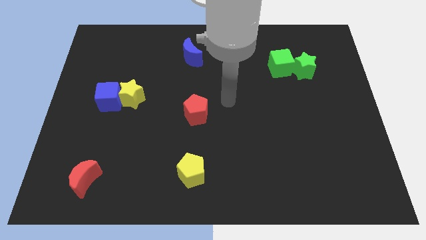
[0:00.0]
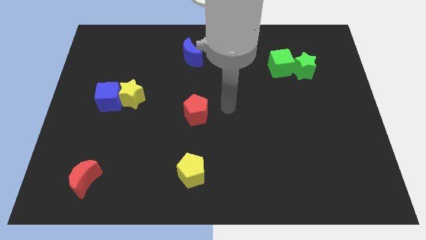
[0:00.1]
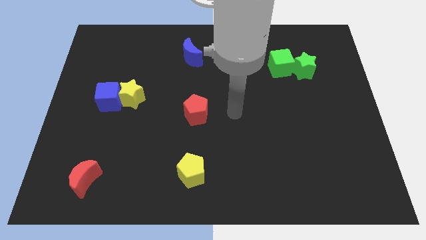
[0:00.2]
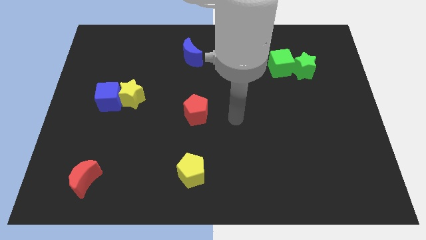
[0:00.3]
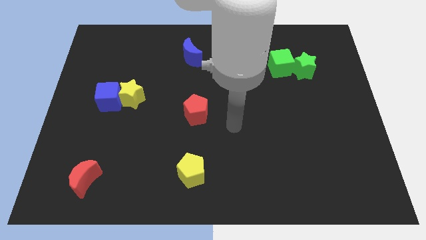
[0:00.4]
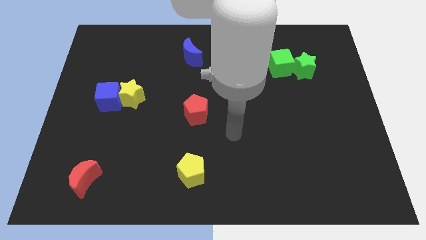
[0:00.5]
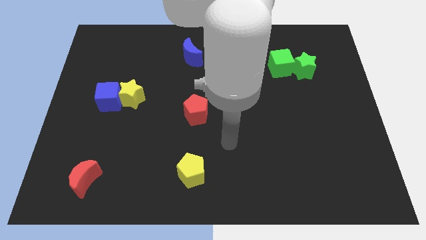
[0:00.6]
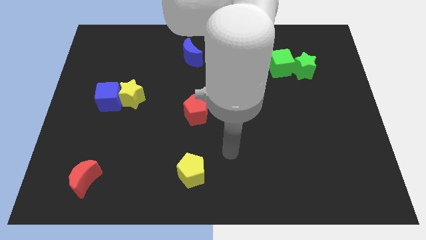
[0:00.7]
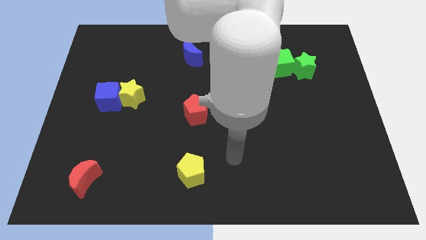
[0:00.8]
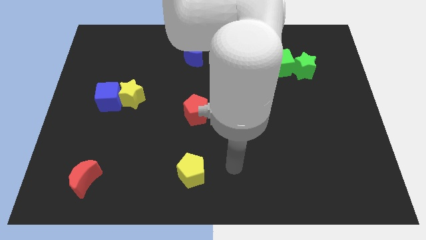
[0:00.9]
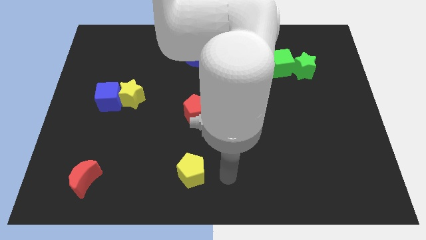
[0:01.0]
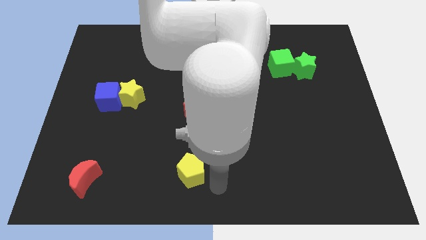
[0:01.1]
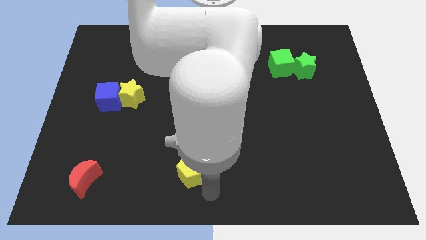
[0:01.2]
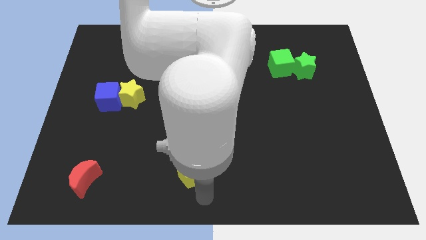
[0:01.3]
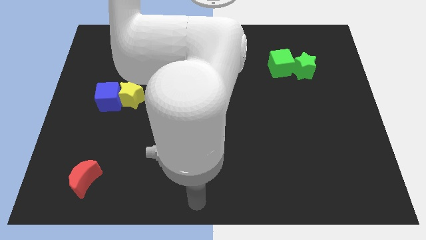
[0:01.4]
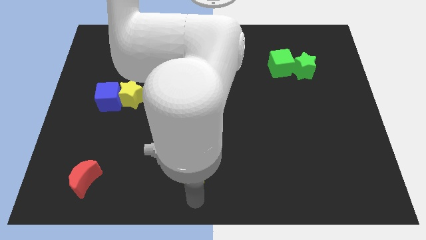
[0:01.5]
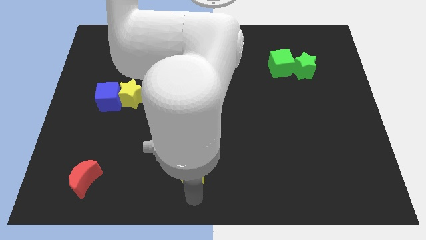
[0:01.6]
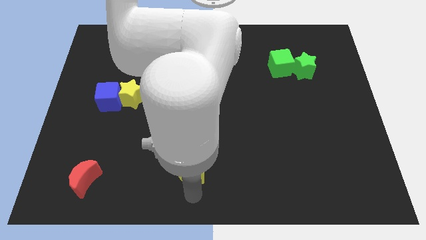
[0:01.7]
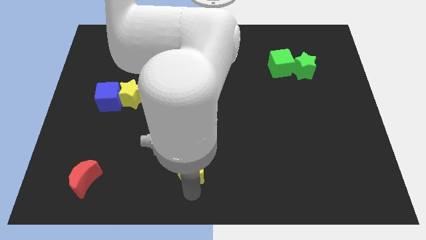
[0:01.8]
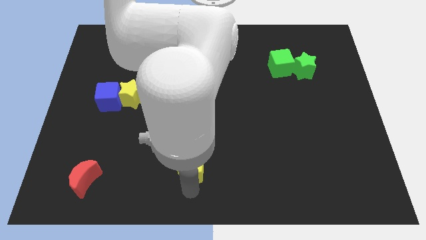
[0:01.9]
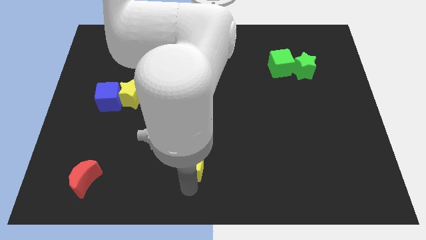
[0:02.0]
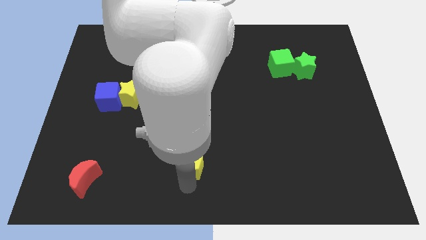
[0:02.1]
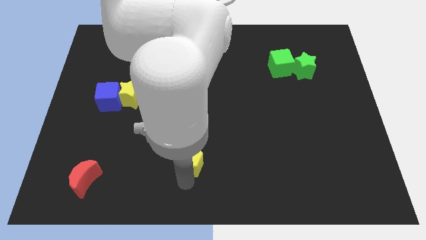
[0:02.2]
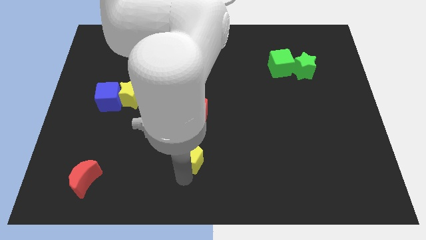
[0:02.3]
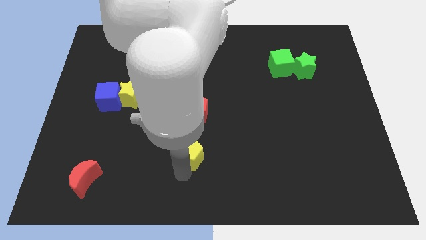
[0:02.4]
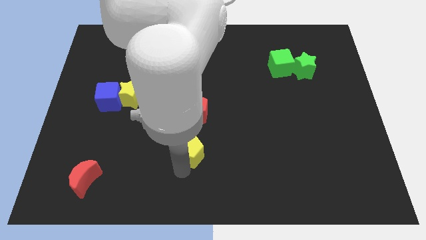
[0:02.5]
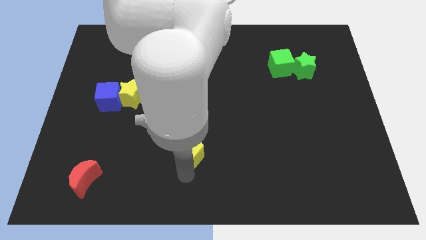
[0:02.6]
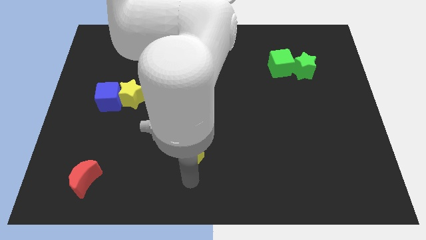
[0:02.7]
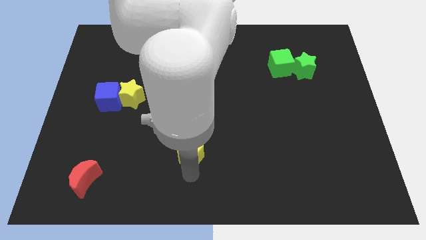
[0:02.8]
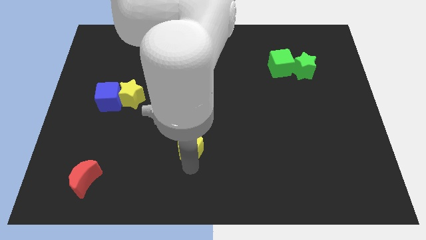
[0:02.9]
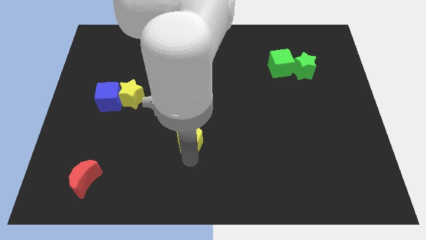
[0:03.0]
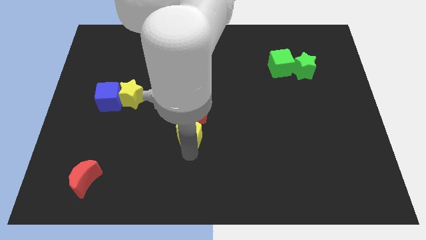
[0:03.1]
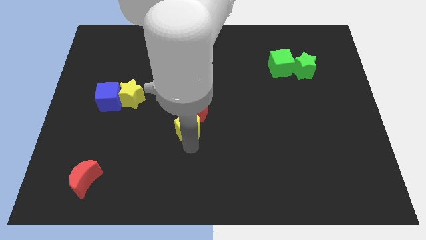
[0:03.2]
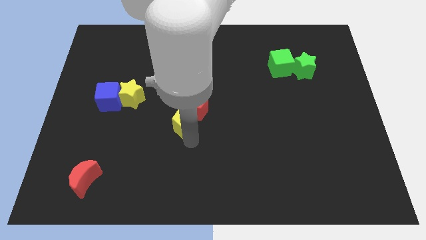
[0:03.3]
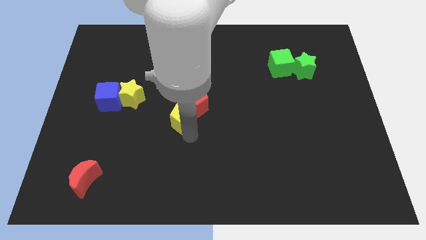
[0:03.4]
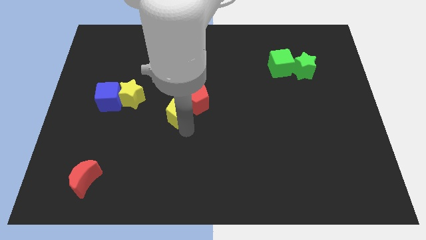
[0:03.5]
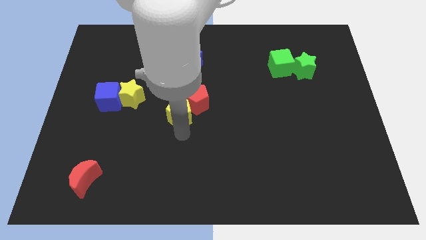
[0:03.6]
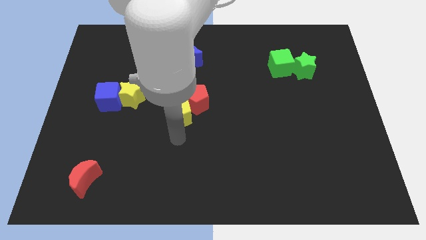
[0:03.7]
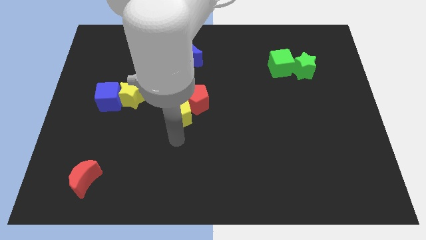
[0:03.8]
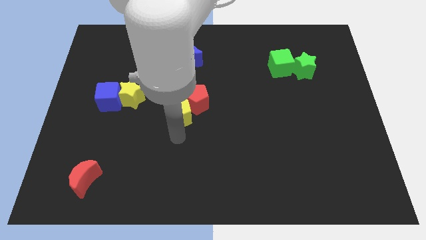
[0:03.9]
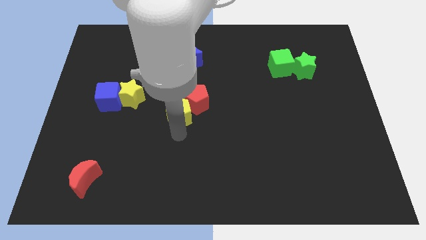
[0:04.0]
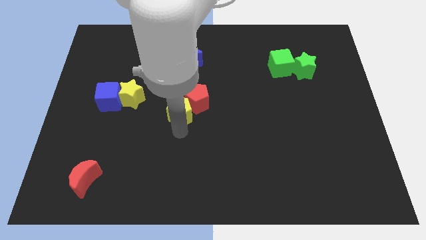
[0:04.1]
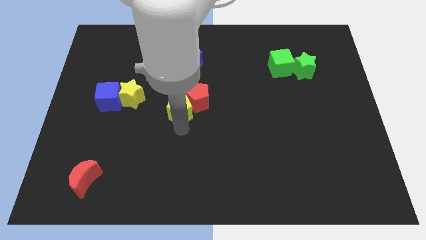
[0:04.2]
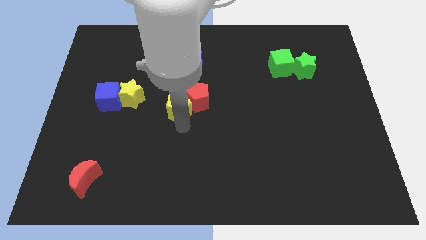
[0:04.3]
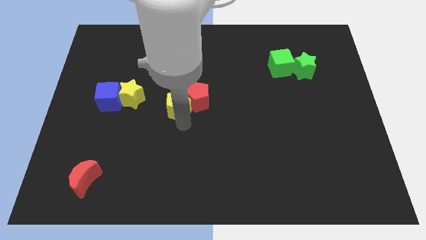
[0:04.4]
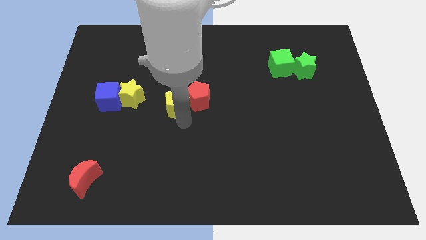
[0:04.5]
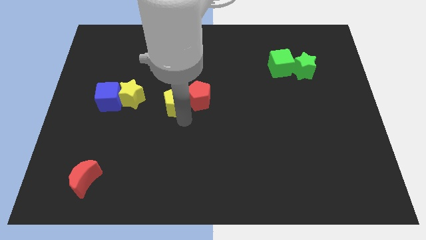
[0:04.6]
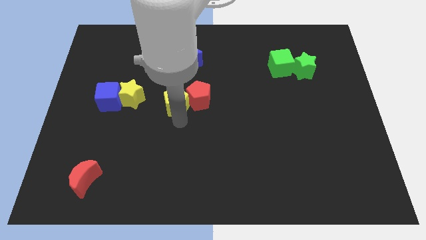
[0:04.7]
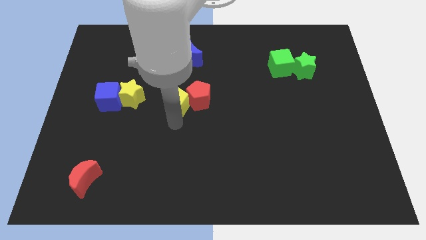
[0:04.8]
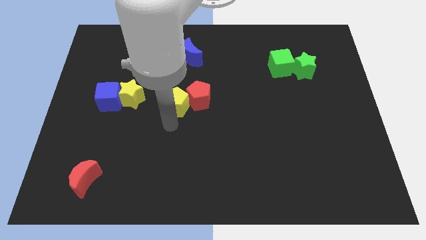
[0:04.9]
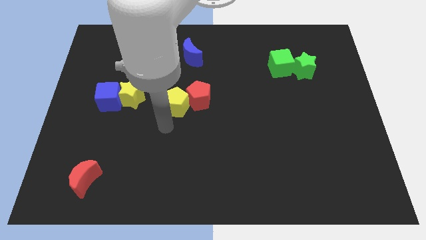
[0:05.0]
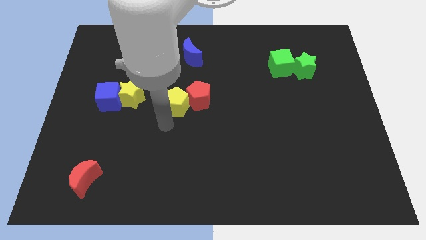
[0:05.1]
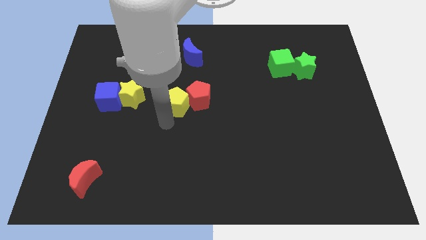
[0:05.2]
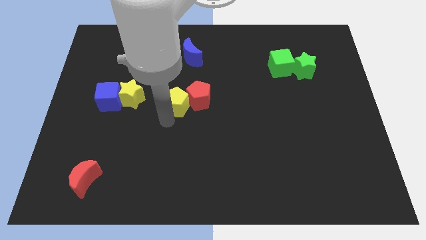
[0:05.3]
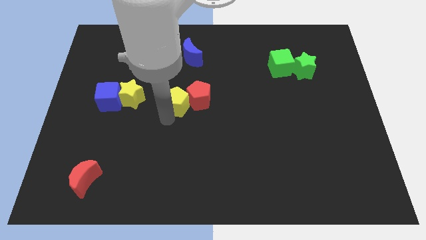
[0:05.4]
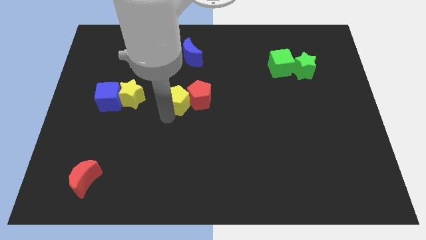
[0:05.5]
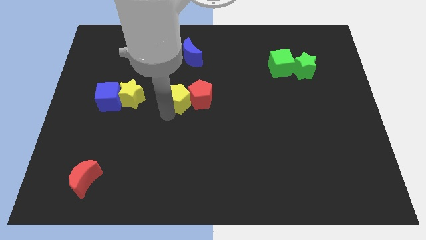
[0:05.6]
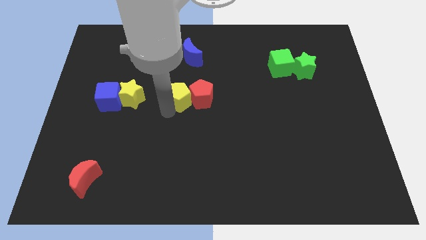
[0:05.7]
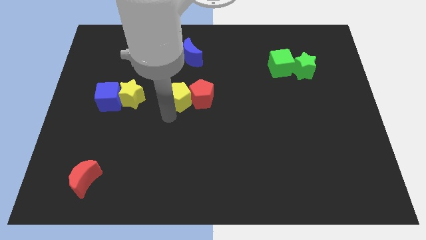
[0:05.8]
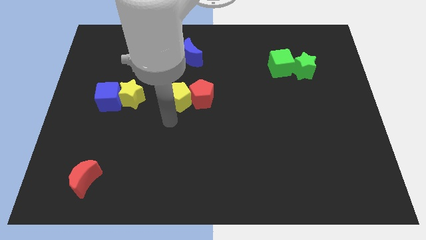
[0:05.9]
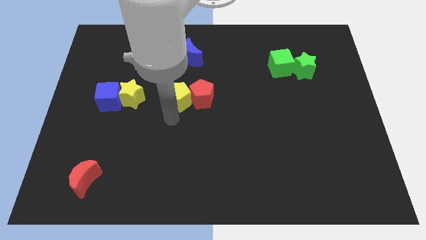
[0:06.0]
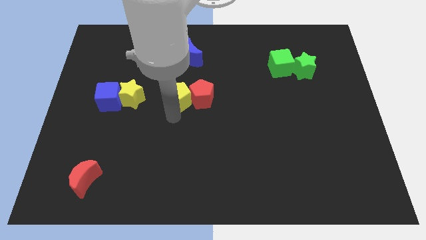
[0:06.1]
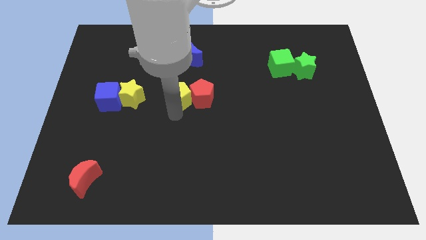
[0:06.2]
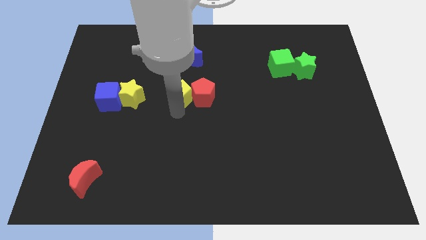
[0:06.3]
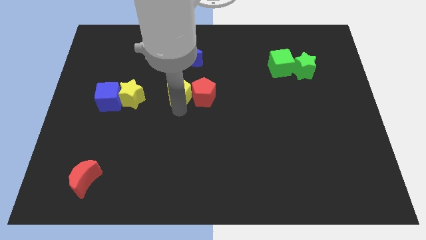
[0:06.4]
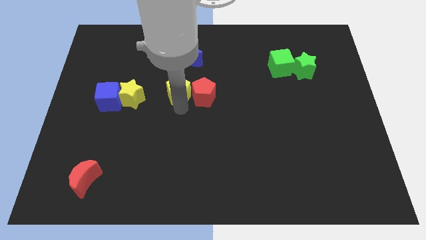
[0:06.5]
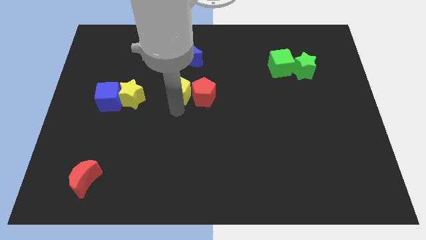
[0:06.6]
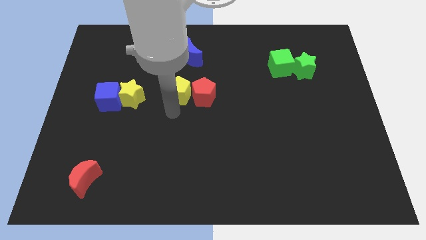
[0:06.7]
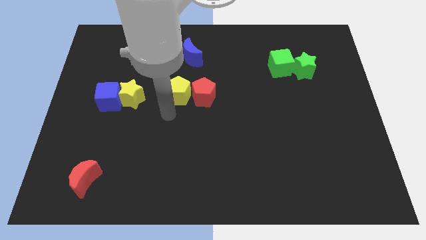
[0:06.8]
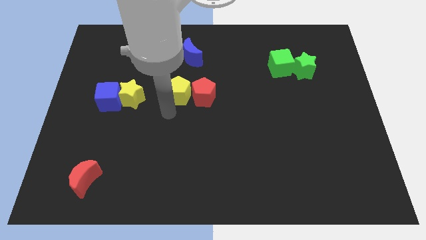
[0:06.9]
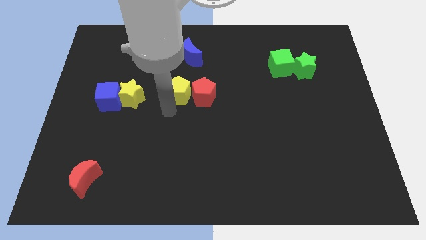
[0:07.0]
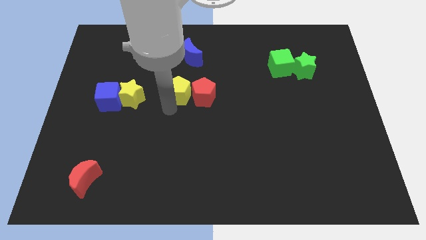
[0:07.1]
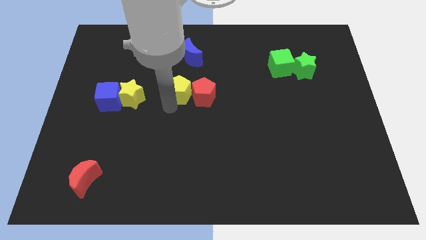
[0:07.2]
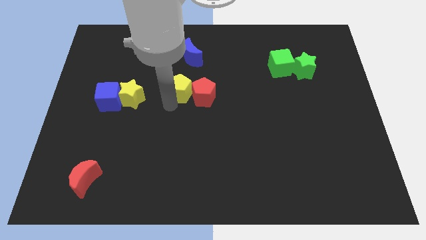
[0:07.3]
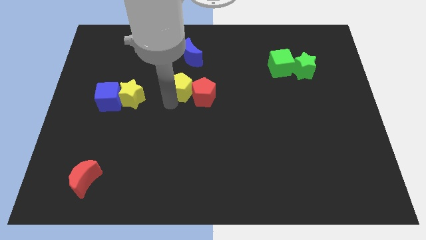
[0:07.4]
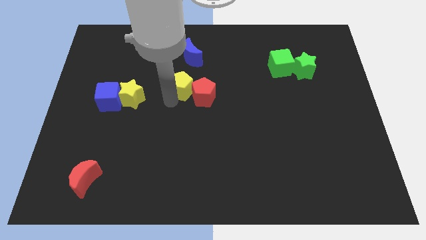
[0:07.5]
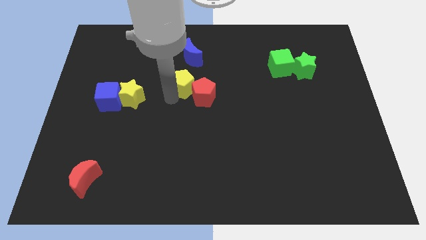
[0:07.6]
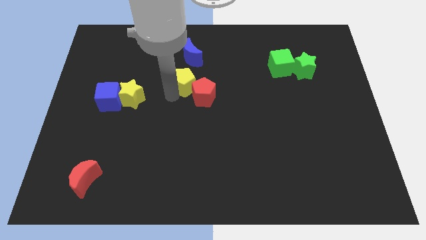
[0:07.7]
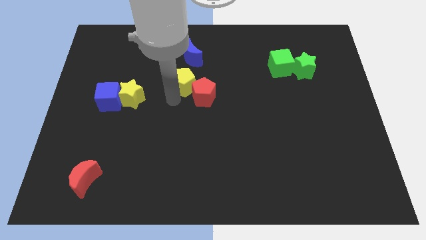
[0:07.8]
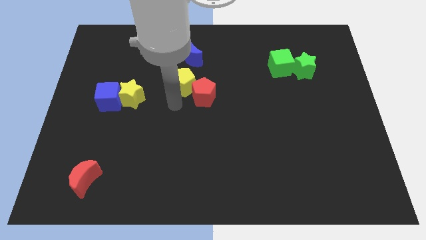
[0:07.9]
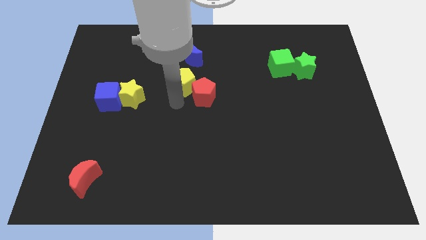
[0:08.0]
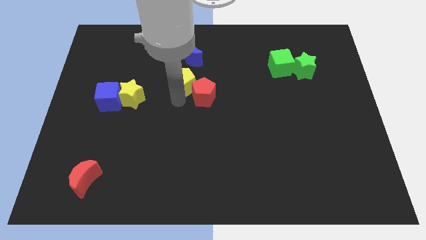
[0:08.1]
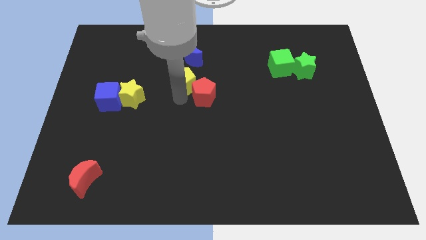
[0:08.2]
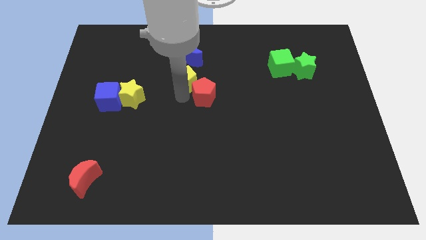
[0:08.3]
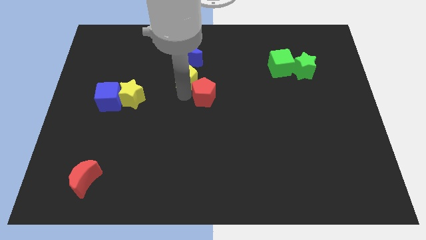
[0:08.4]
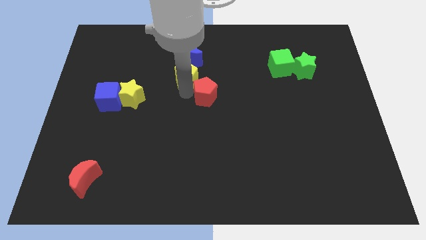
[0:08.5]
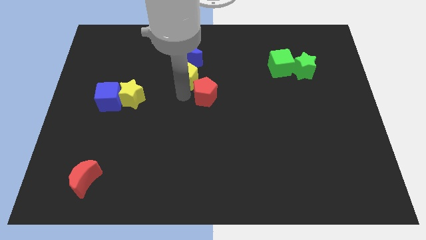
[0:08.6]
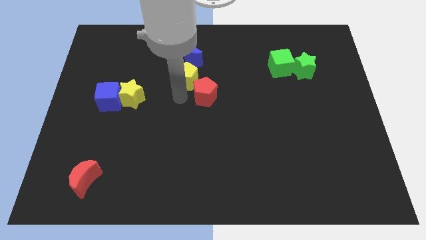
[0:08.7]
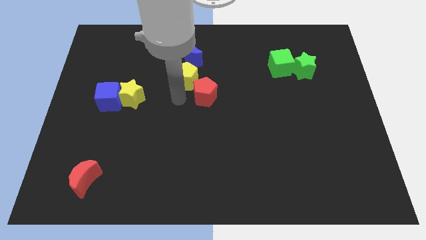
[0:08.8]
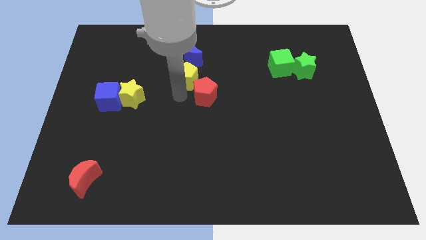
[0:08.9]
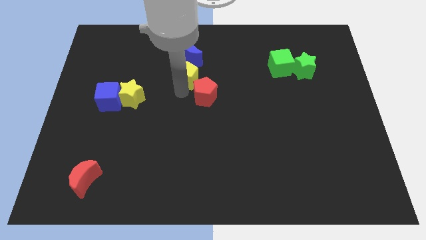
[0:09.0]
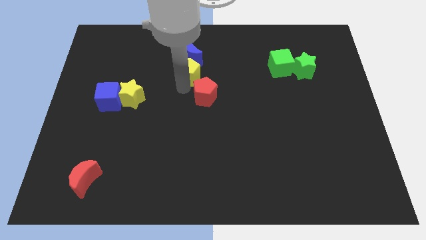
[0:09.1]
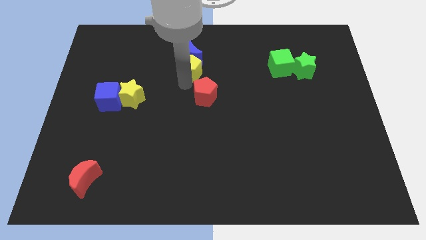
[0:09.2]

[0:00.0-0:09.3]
put the yellow pentagon next to the blue moon
